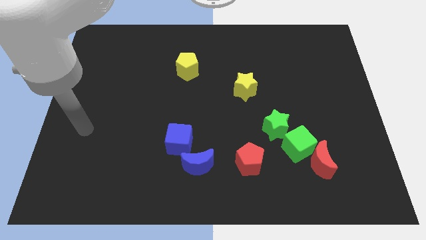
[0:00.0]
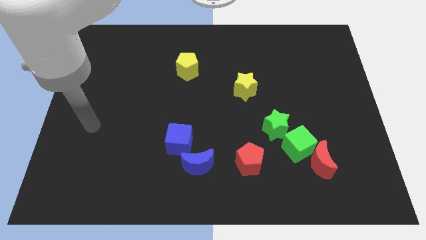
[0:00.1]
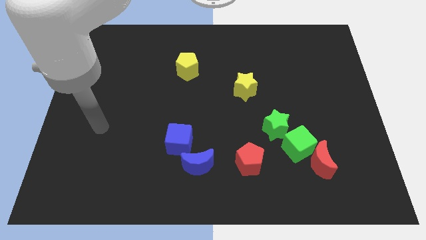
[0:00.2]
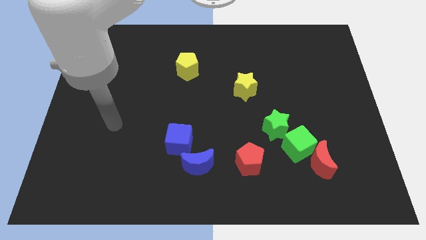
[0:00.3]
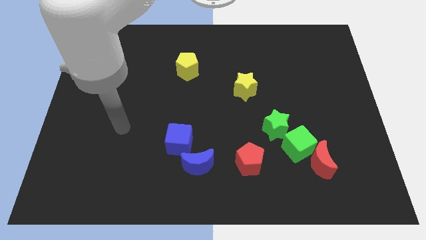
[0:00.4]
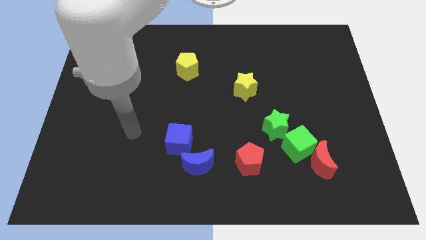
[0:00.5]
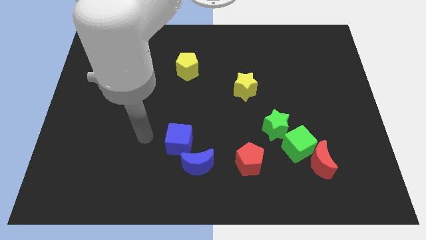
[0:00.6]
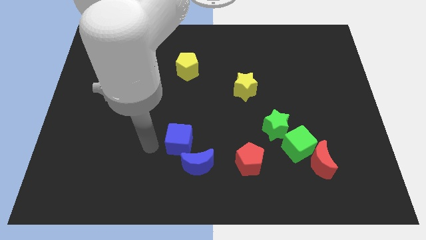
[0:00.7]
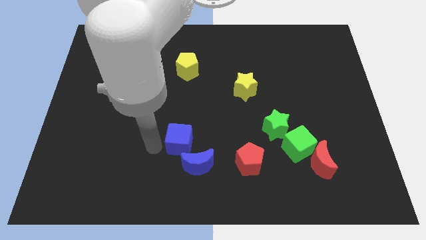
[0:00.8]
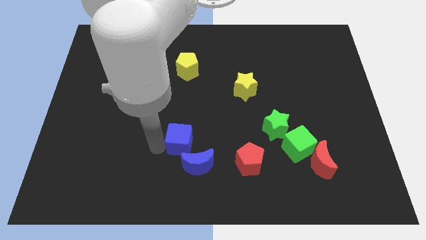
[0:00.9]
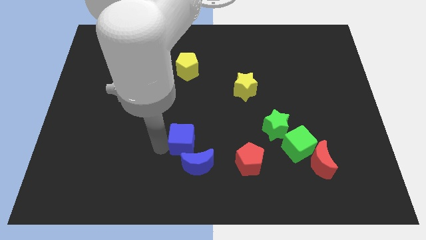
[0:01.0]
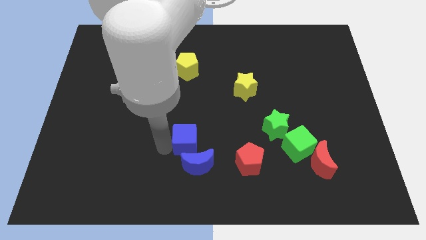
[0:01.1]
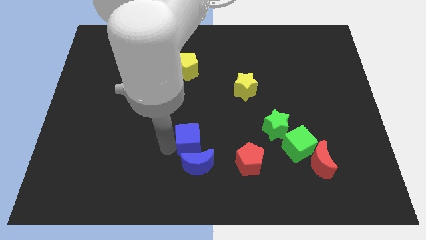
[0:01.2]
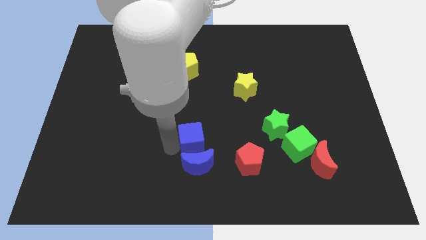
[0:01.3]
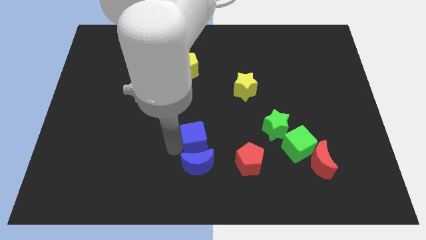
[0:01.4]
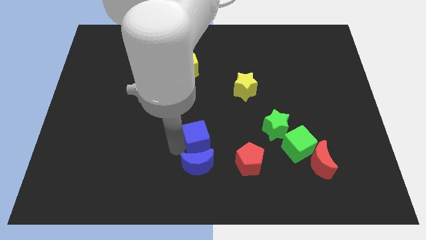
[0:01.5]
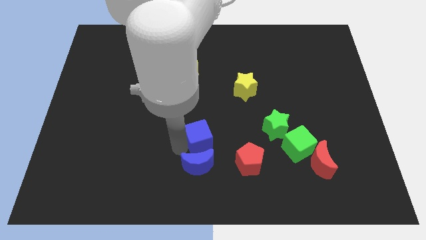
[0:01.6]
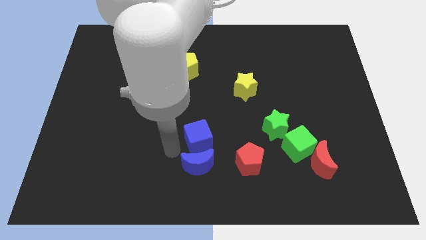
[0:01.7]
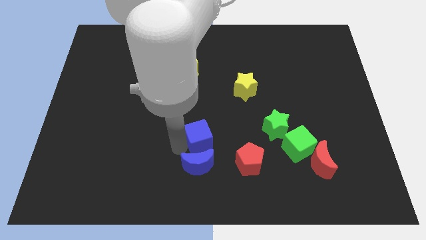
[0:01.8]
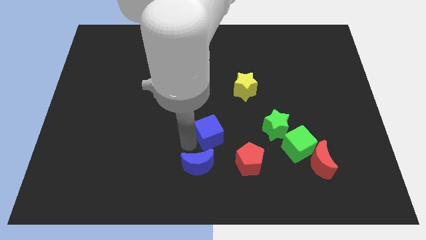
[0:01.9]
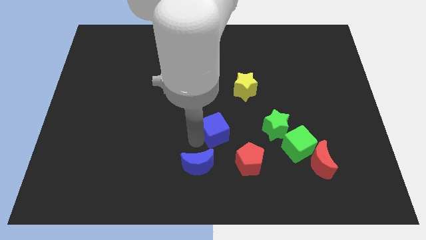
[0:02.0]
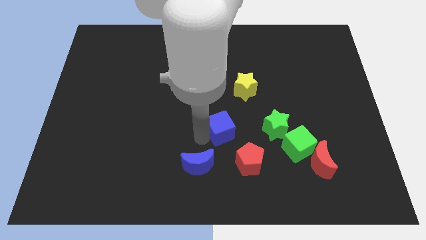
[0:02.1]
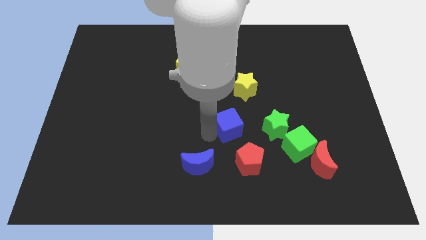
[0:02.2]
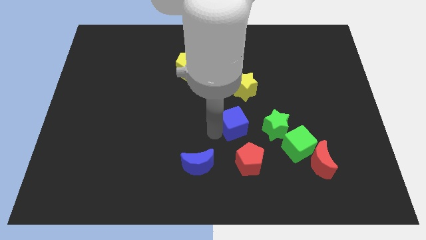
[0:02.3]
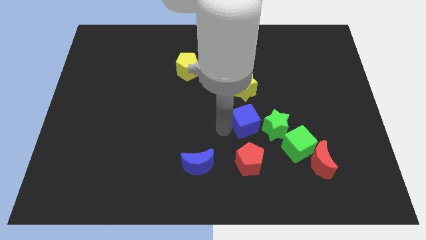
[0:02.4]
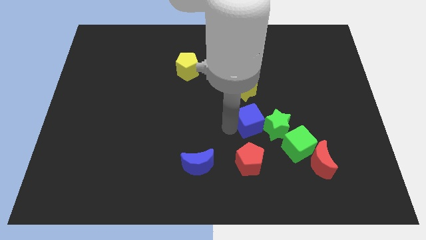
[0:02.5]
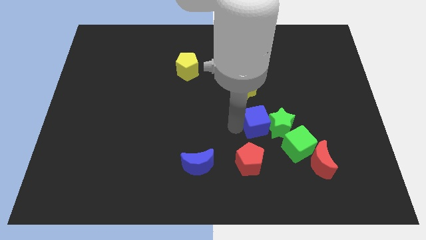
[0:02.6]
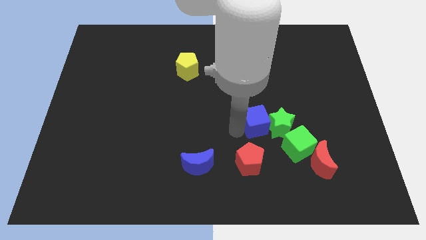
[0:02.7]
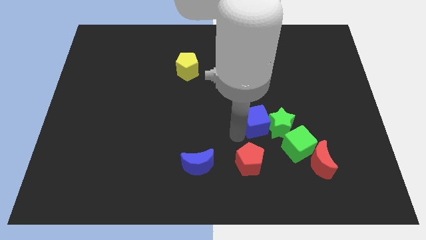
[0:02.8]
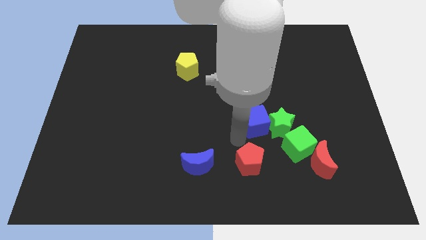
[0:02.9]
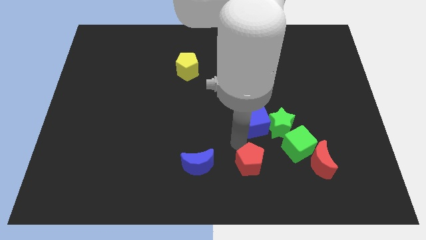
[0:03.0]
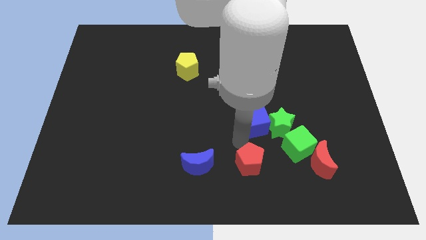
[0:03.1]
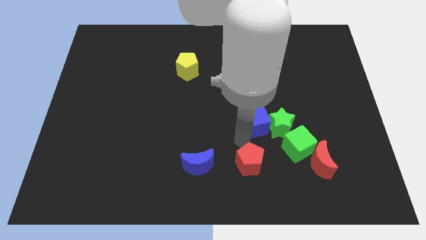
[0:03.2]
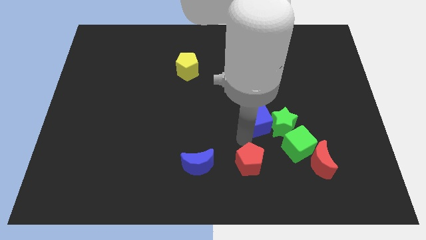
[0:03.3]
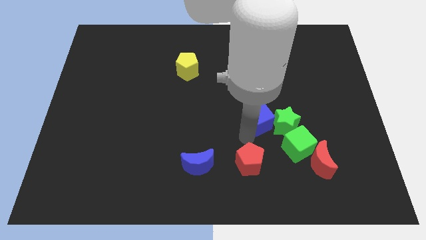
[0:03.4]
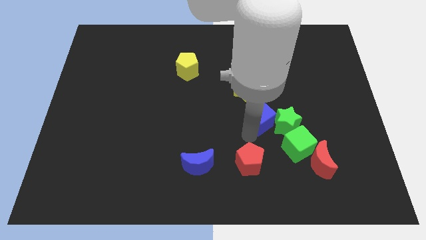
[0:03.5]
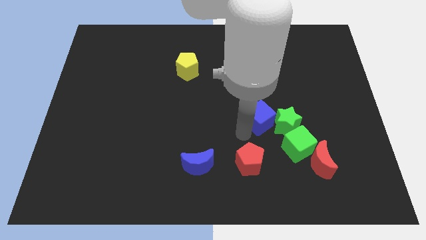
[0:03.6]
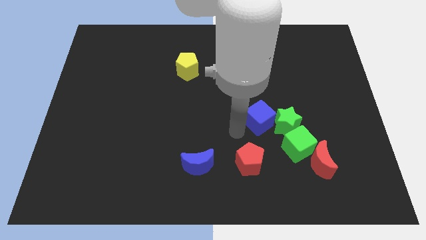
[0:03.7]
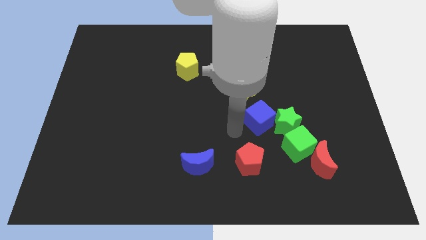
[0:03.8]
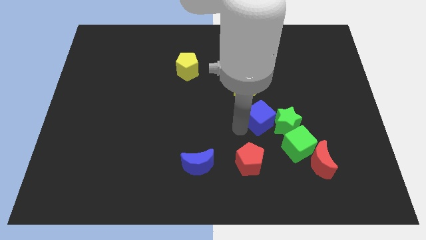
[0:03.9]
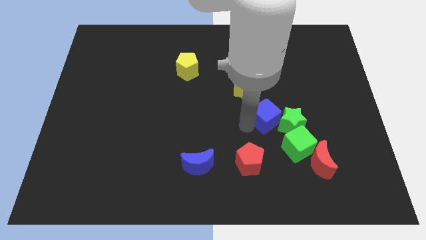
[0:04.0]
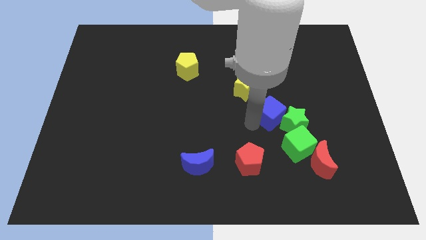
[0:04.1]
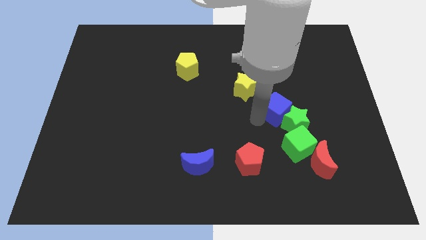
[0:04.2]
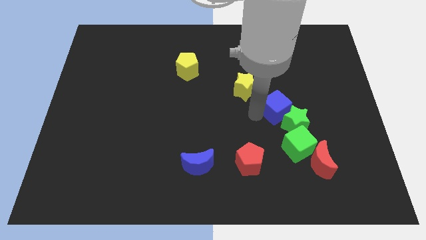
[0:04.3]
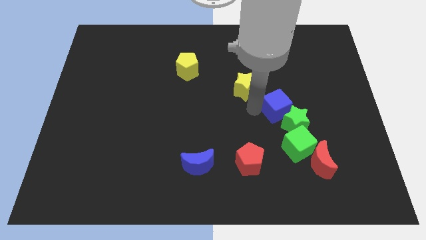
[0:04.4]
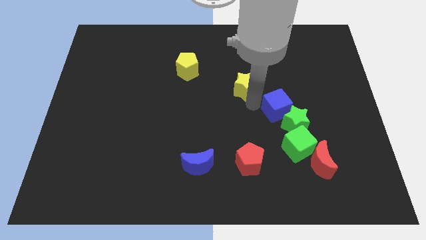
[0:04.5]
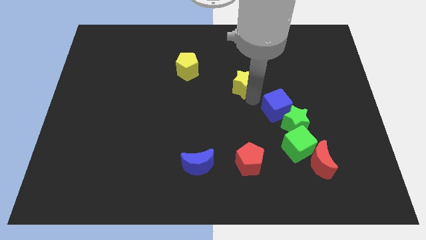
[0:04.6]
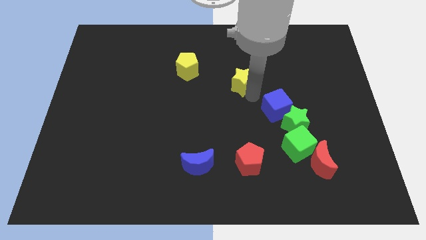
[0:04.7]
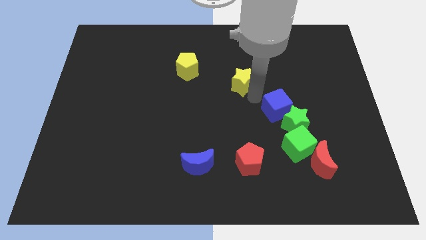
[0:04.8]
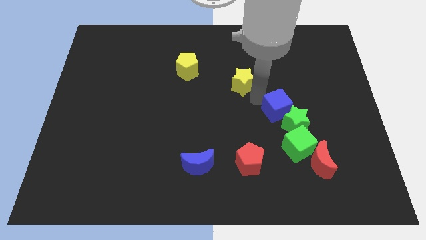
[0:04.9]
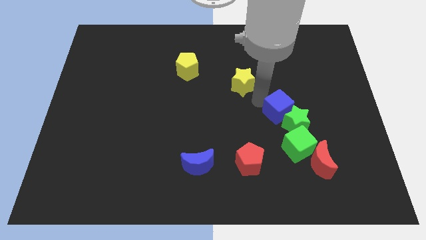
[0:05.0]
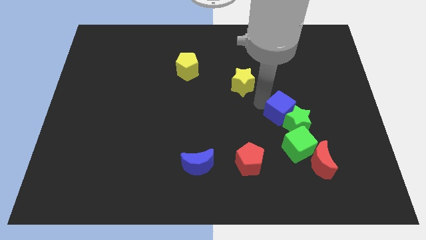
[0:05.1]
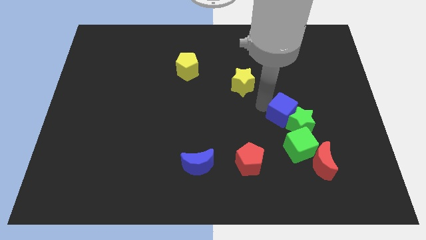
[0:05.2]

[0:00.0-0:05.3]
move the blue cube to the right

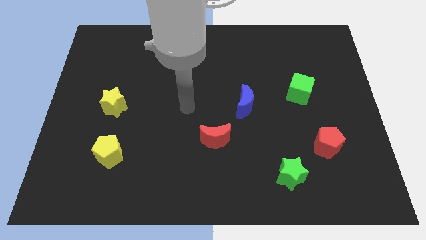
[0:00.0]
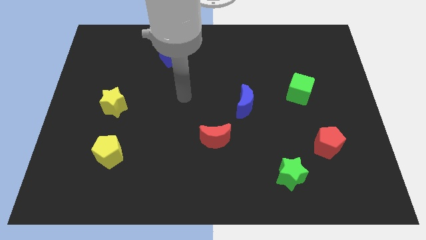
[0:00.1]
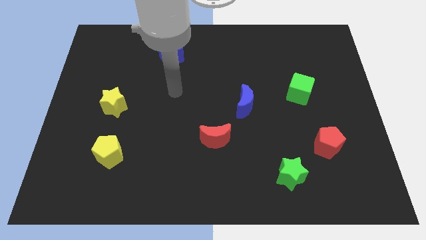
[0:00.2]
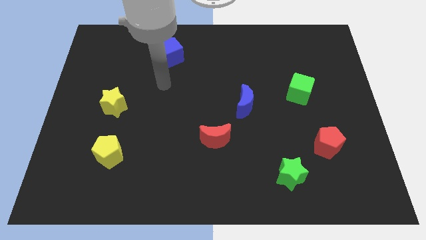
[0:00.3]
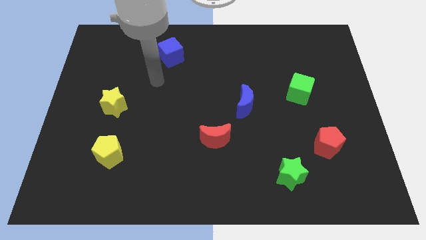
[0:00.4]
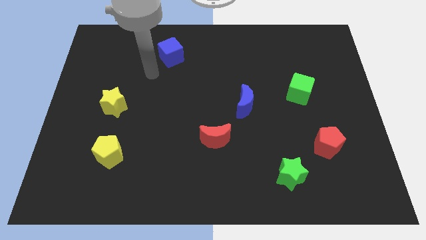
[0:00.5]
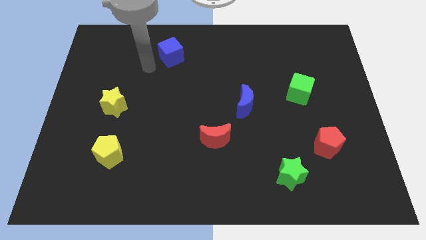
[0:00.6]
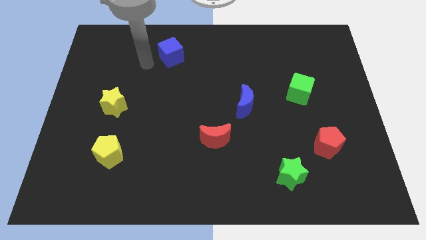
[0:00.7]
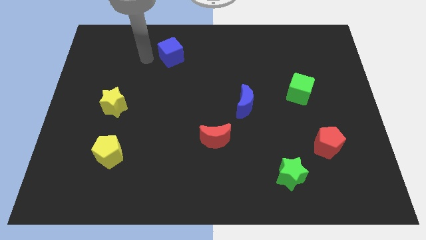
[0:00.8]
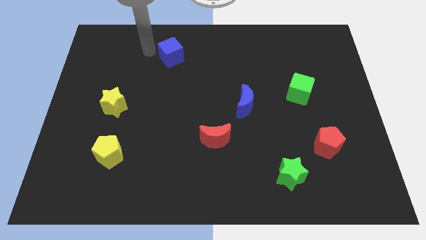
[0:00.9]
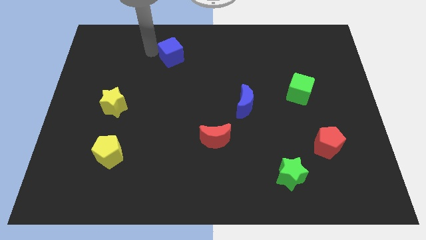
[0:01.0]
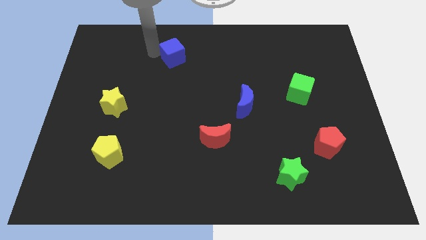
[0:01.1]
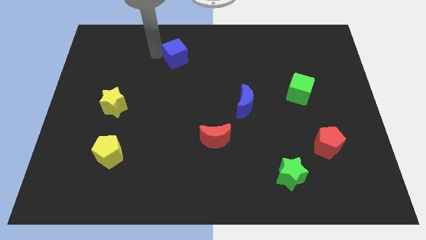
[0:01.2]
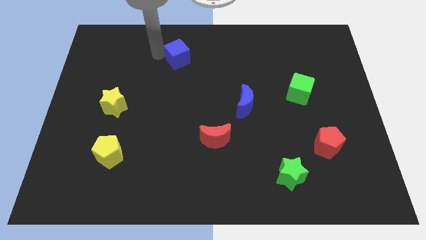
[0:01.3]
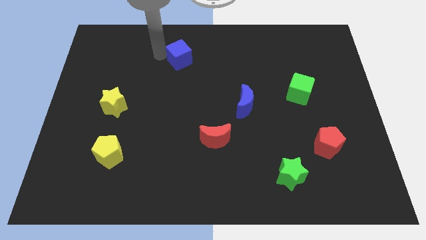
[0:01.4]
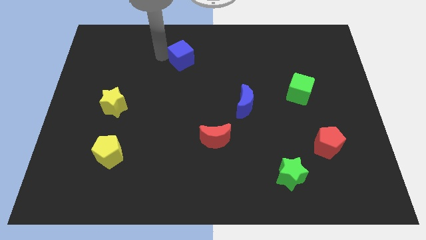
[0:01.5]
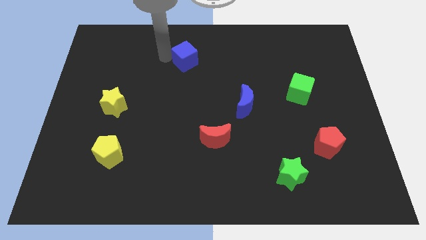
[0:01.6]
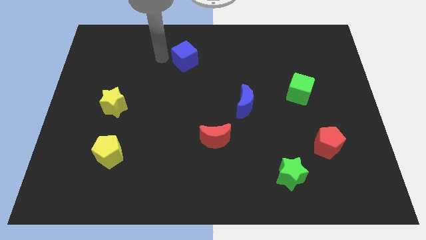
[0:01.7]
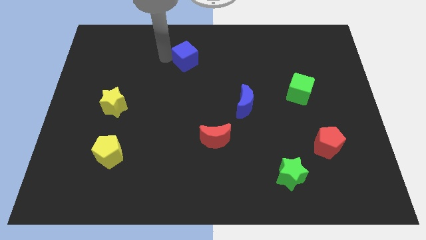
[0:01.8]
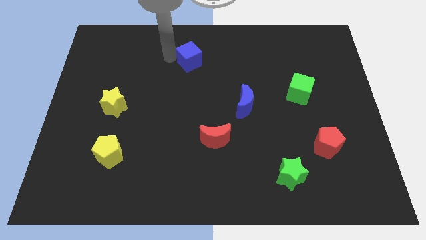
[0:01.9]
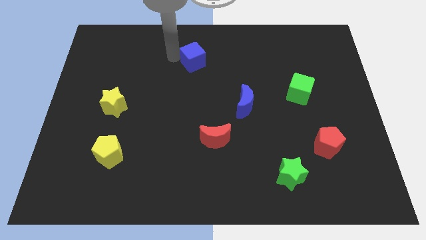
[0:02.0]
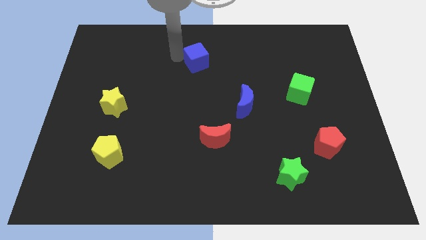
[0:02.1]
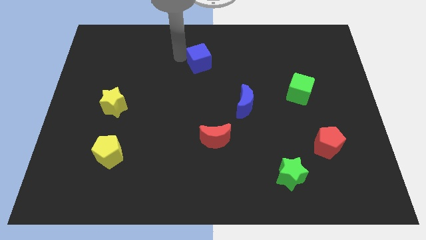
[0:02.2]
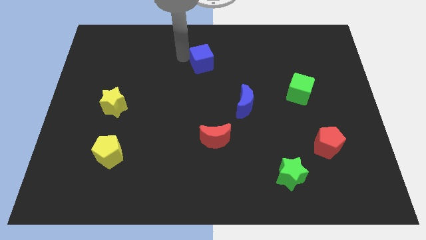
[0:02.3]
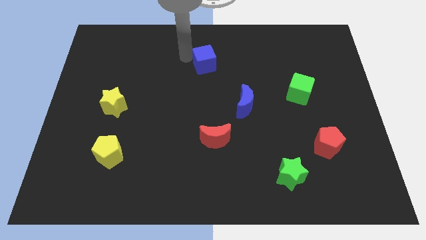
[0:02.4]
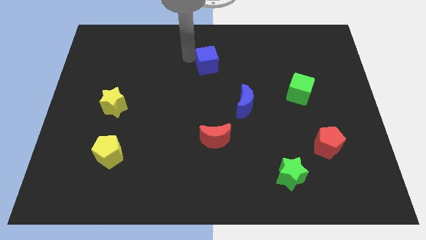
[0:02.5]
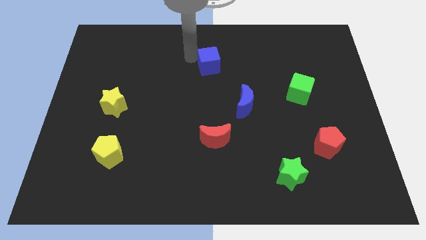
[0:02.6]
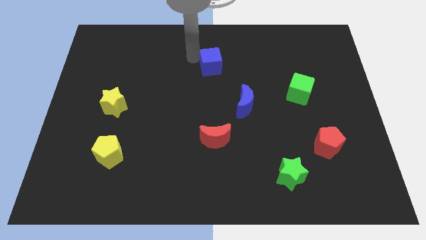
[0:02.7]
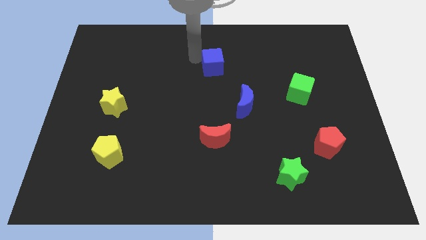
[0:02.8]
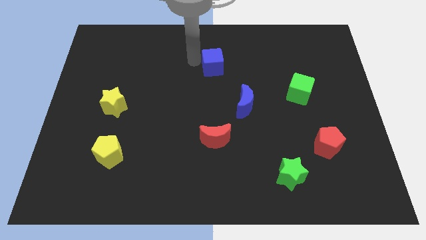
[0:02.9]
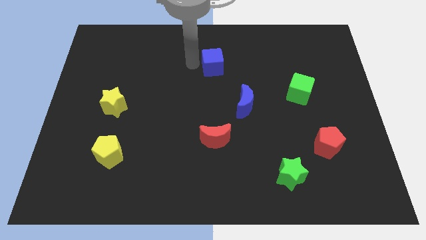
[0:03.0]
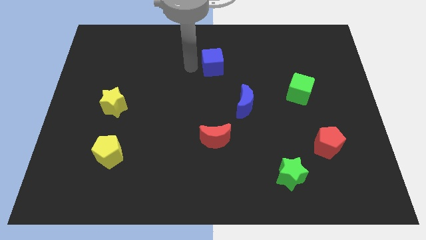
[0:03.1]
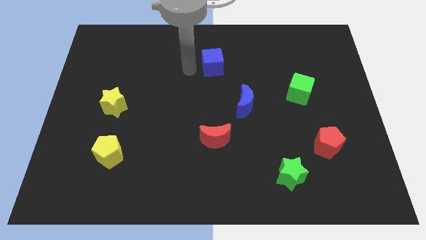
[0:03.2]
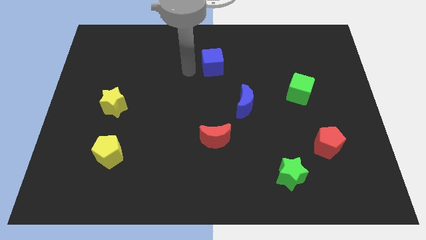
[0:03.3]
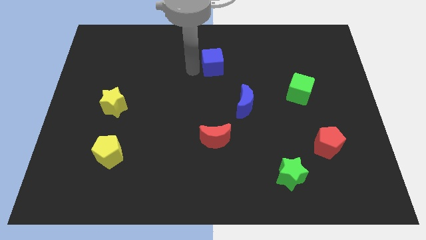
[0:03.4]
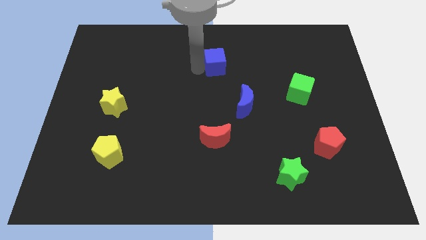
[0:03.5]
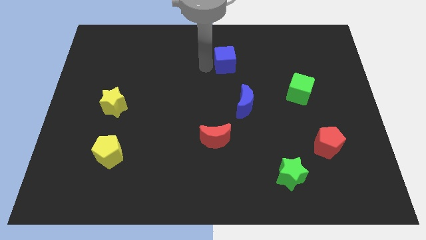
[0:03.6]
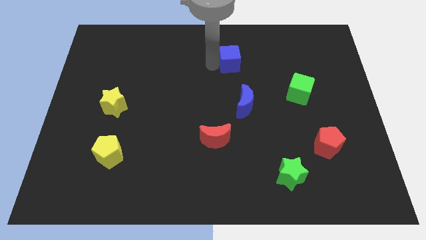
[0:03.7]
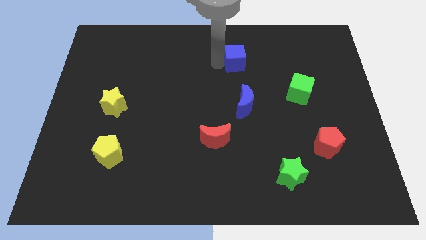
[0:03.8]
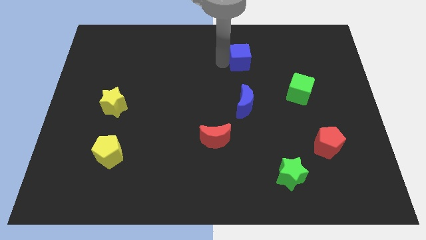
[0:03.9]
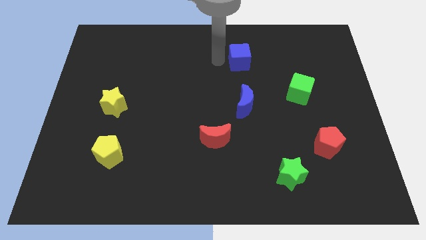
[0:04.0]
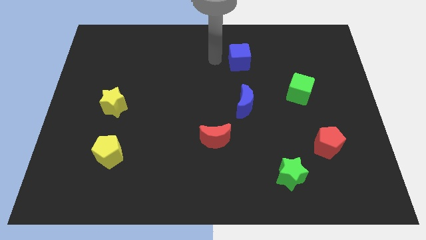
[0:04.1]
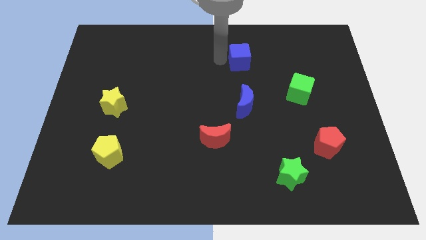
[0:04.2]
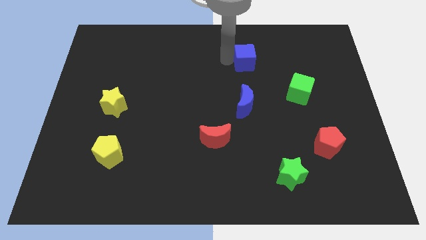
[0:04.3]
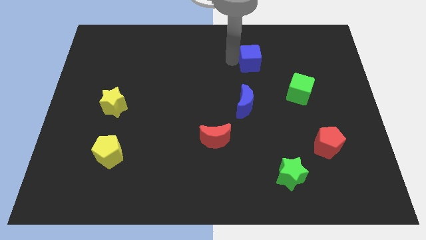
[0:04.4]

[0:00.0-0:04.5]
slide the blue cube to the right
